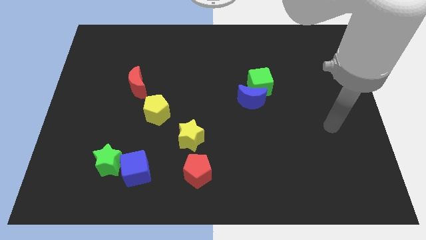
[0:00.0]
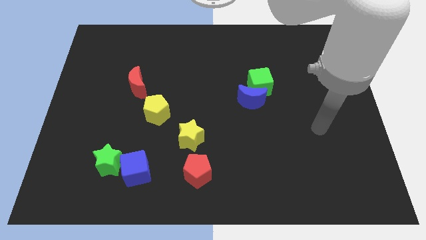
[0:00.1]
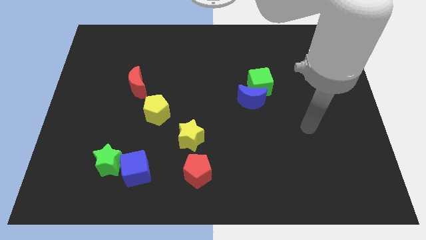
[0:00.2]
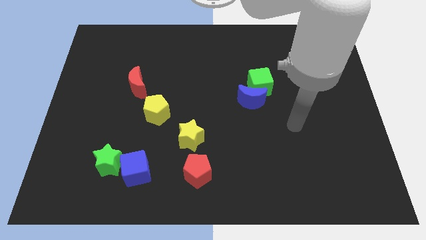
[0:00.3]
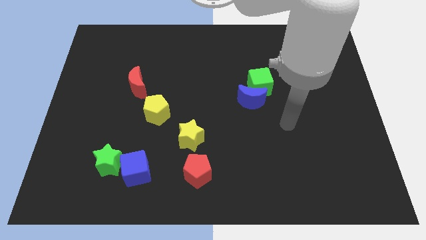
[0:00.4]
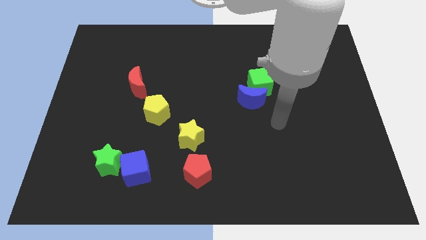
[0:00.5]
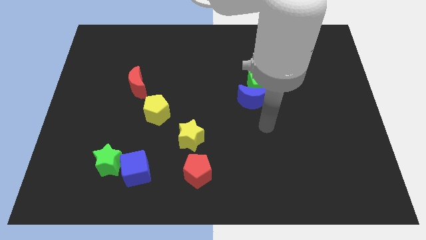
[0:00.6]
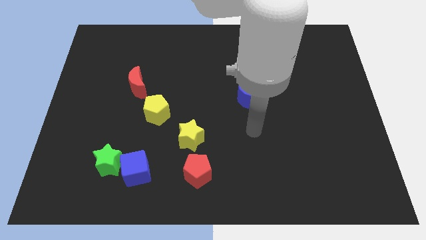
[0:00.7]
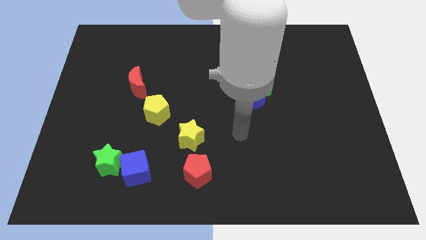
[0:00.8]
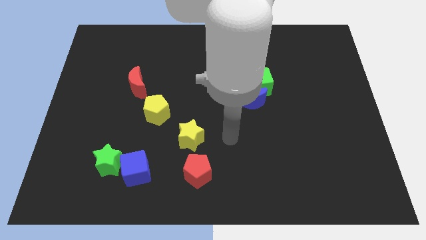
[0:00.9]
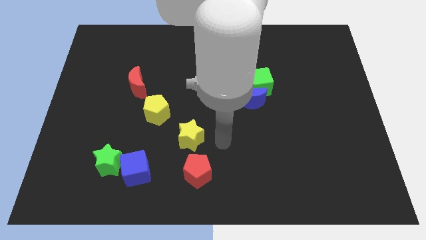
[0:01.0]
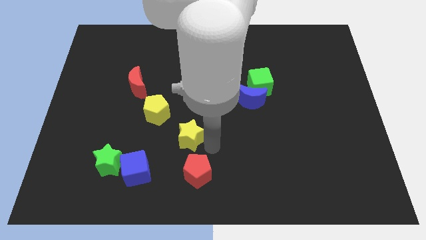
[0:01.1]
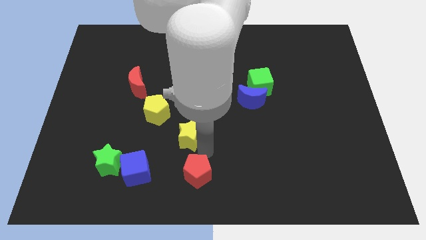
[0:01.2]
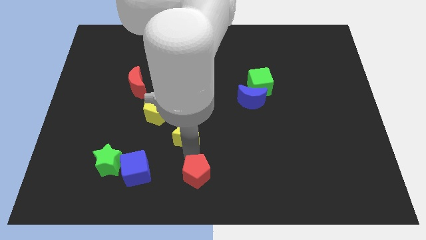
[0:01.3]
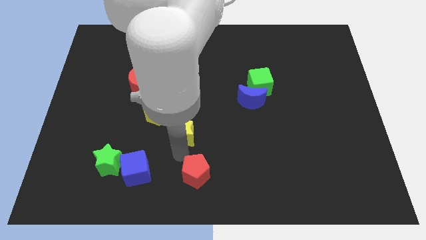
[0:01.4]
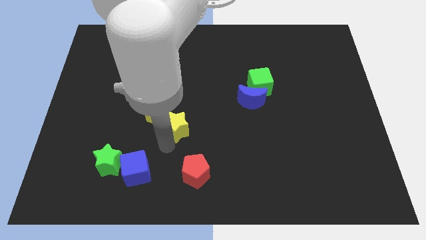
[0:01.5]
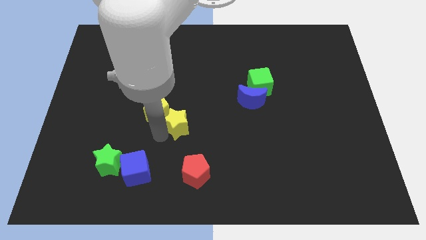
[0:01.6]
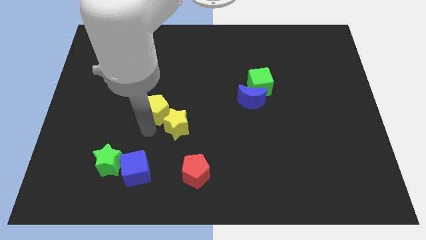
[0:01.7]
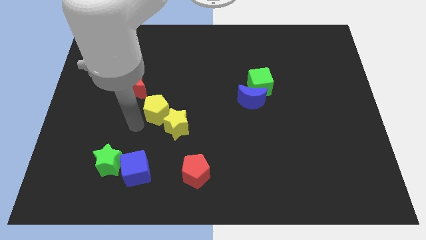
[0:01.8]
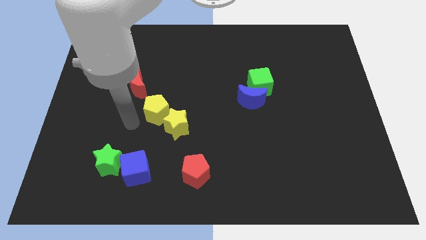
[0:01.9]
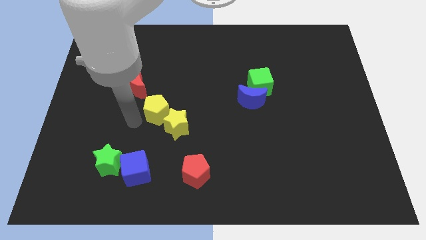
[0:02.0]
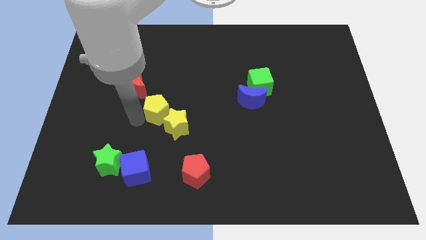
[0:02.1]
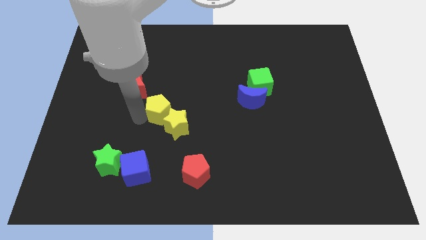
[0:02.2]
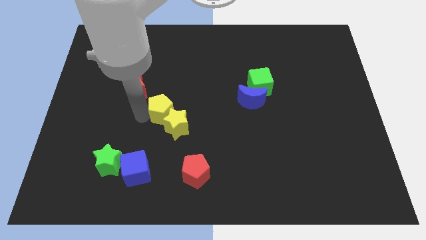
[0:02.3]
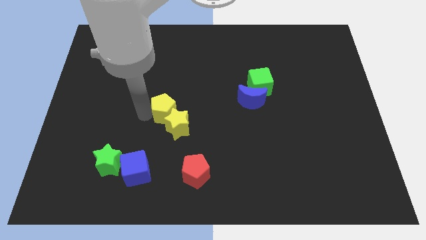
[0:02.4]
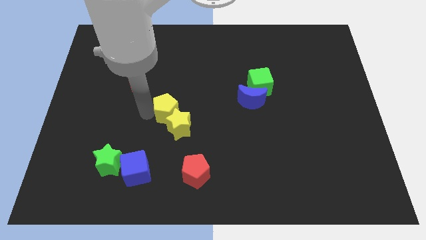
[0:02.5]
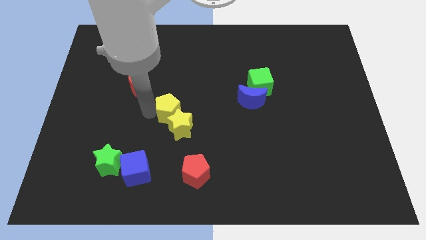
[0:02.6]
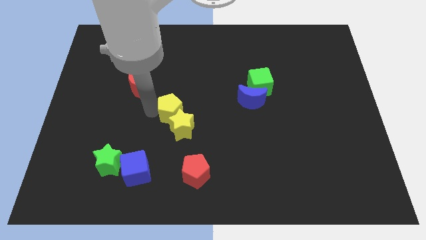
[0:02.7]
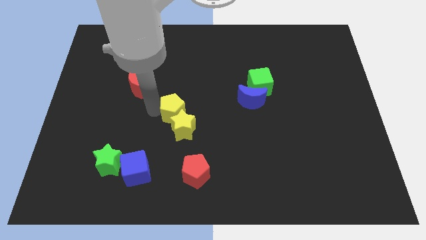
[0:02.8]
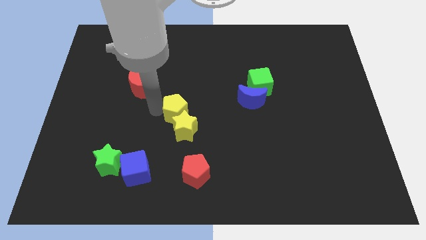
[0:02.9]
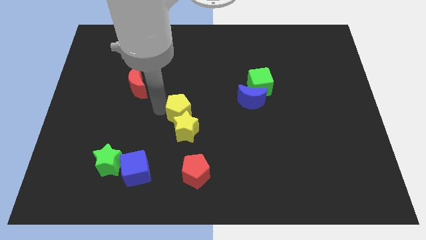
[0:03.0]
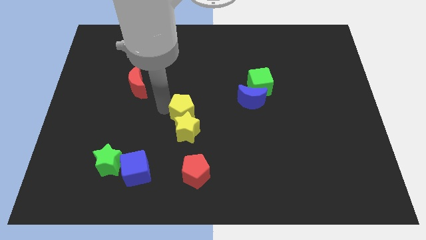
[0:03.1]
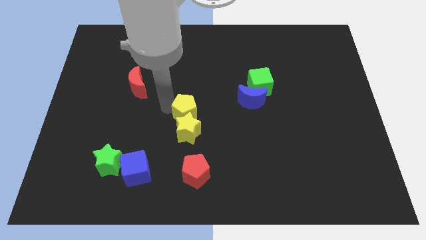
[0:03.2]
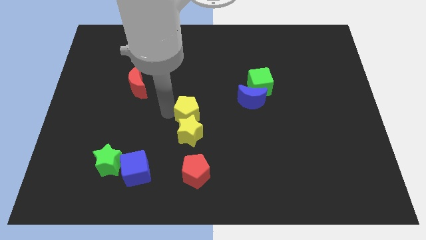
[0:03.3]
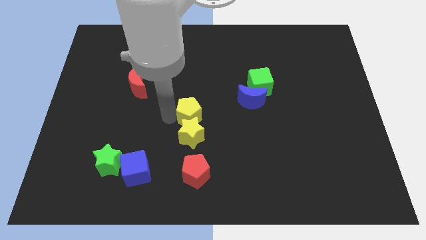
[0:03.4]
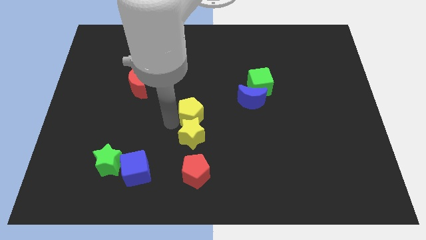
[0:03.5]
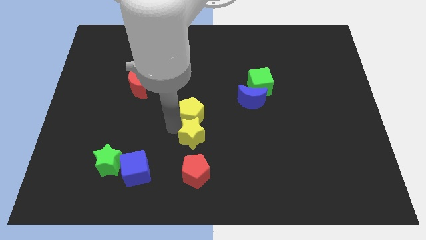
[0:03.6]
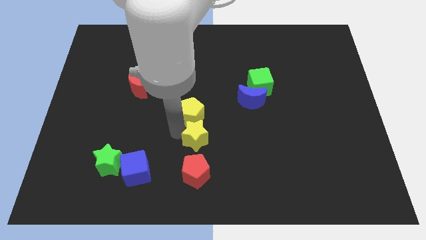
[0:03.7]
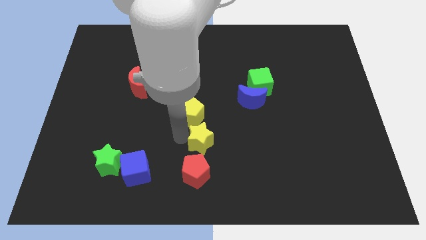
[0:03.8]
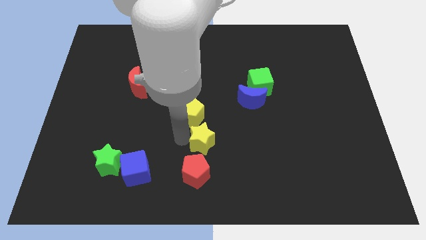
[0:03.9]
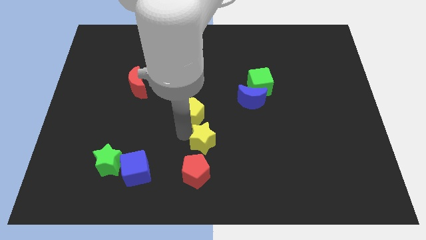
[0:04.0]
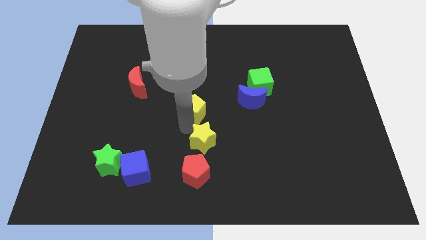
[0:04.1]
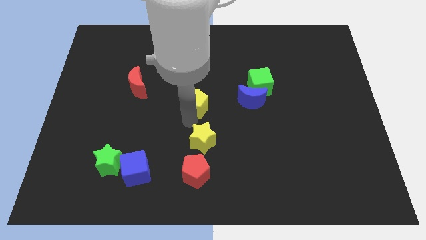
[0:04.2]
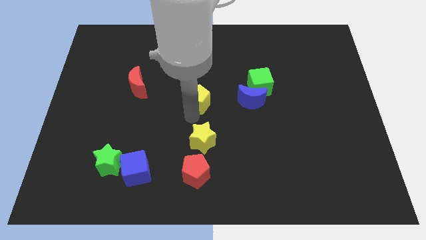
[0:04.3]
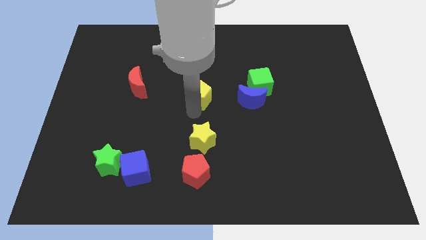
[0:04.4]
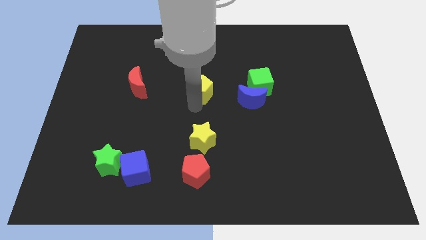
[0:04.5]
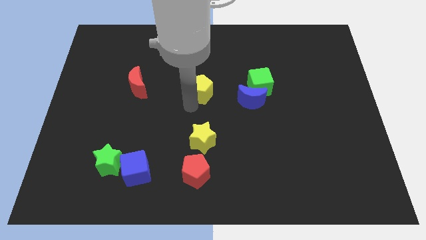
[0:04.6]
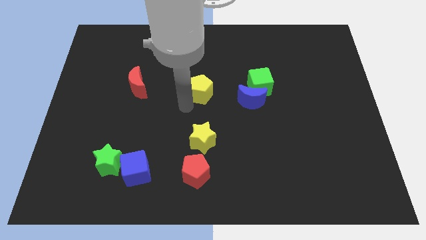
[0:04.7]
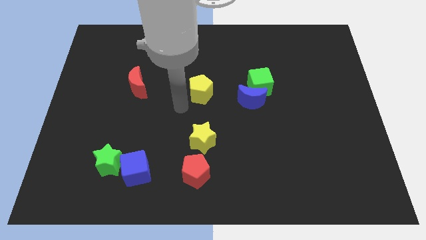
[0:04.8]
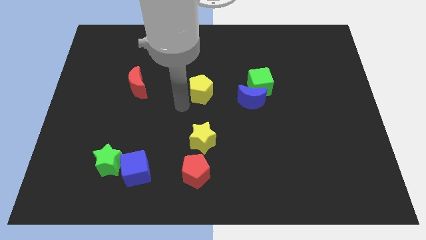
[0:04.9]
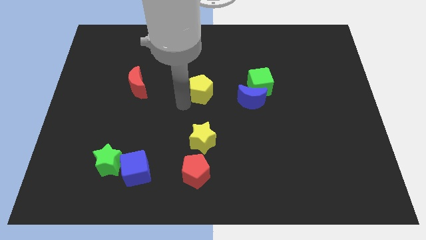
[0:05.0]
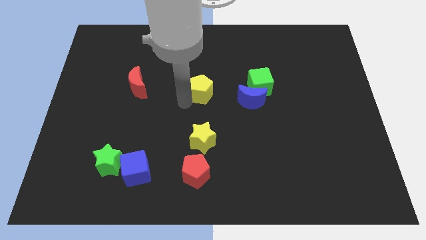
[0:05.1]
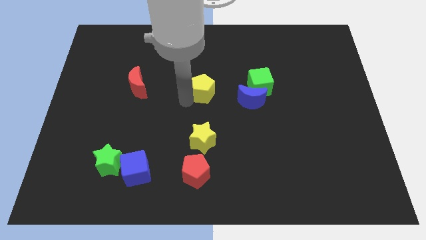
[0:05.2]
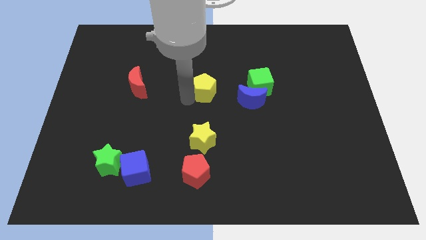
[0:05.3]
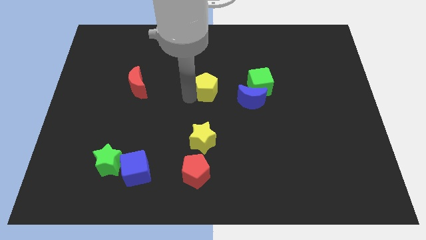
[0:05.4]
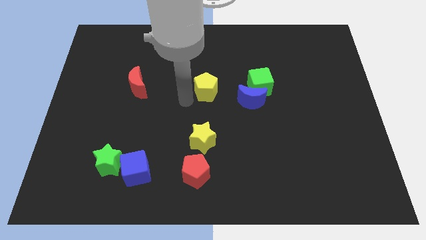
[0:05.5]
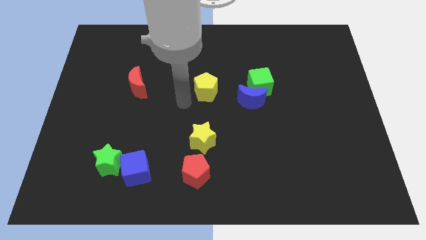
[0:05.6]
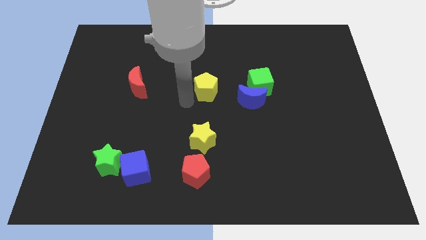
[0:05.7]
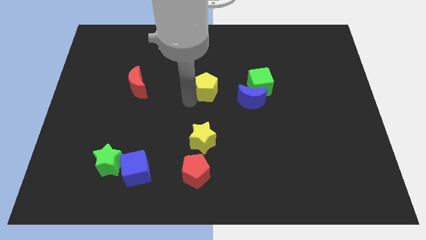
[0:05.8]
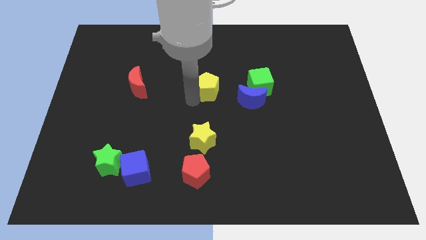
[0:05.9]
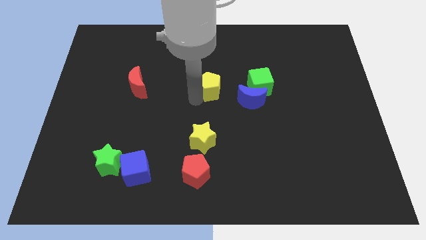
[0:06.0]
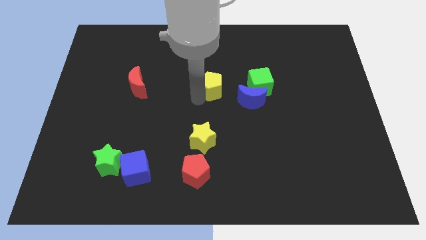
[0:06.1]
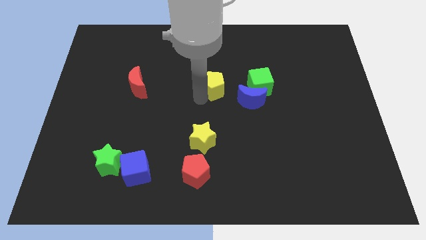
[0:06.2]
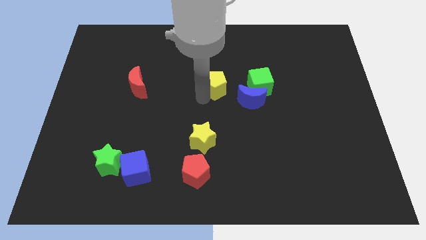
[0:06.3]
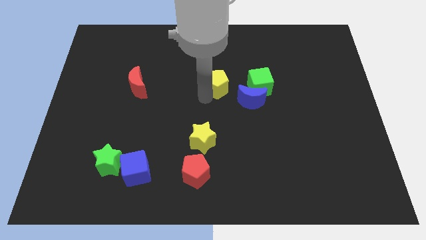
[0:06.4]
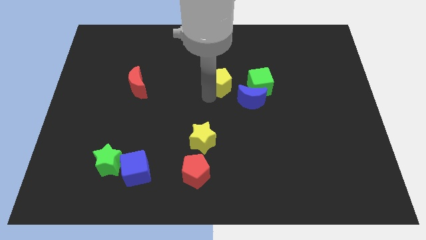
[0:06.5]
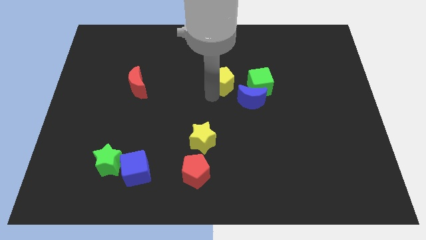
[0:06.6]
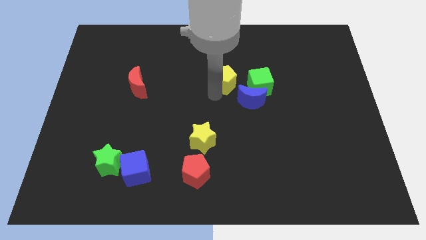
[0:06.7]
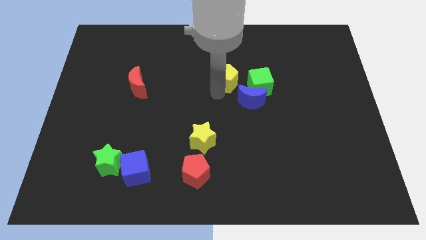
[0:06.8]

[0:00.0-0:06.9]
move the yellow pentagon diagonally up and to the left of the green cube
